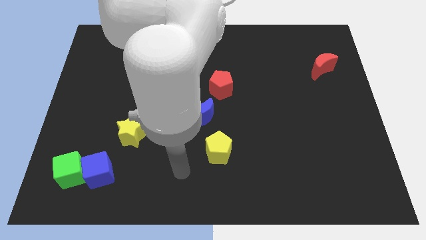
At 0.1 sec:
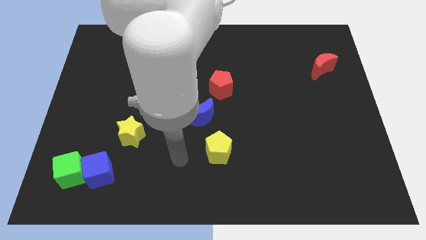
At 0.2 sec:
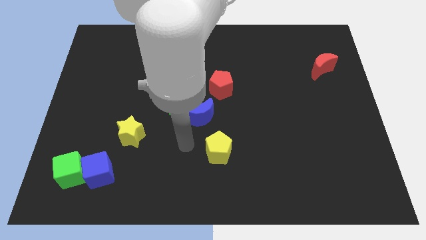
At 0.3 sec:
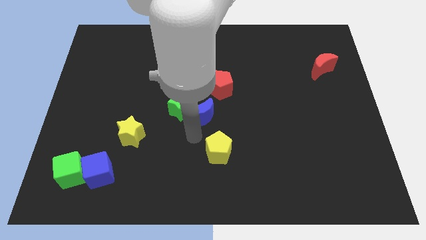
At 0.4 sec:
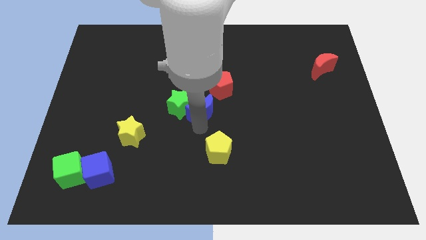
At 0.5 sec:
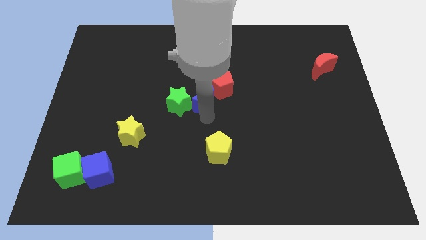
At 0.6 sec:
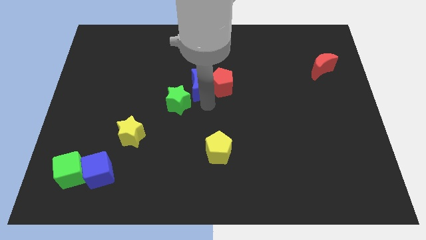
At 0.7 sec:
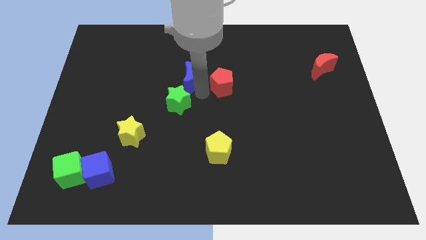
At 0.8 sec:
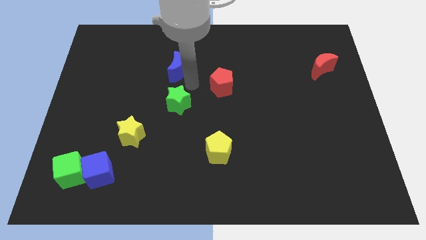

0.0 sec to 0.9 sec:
move the green star away from the blue moon

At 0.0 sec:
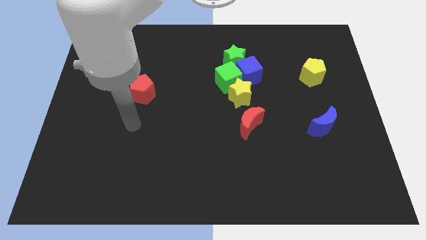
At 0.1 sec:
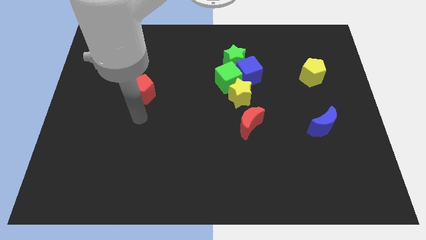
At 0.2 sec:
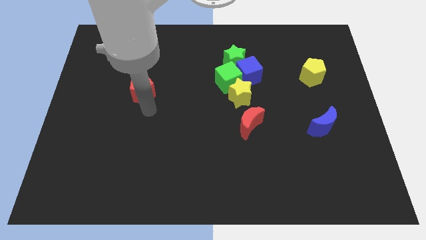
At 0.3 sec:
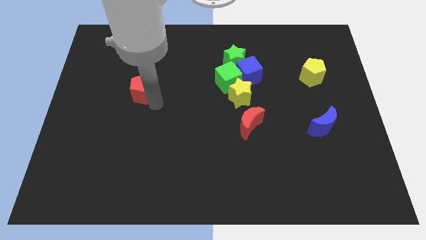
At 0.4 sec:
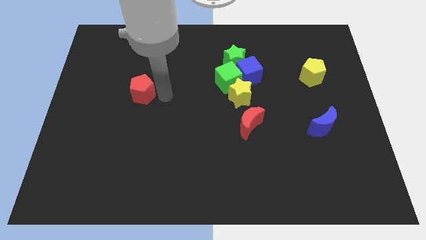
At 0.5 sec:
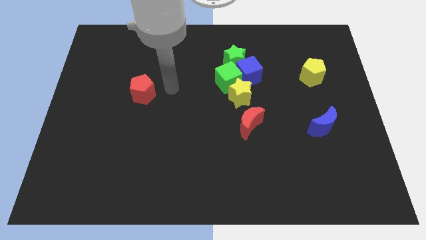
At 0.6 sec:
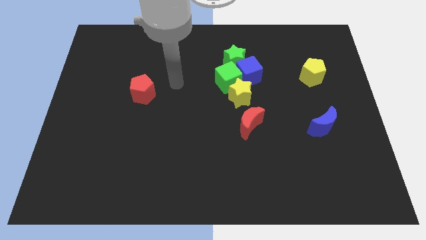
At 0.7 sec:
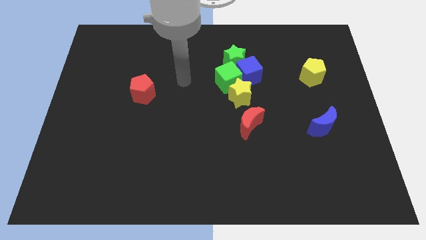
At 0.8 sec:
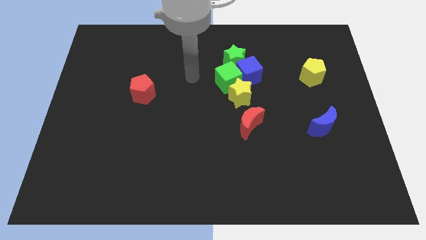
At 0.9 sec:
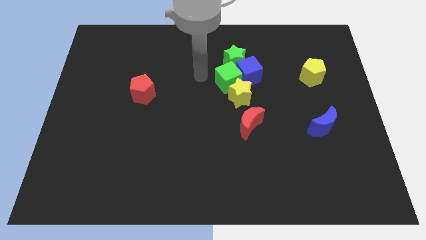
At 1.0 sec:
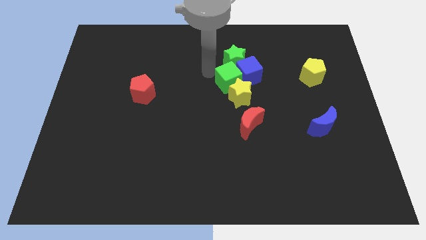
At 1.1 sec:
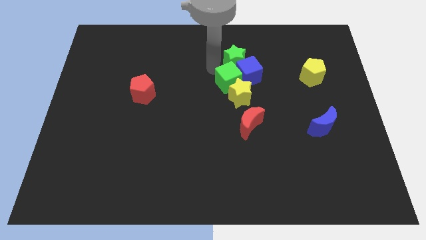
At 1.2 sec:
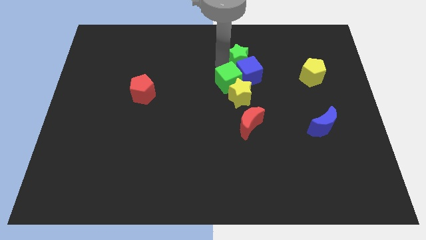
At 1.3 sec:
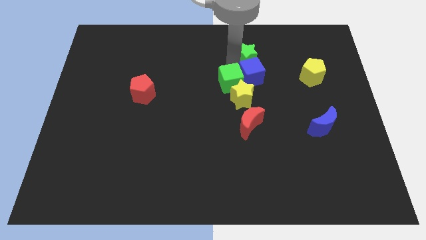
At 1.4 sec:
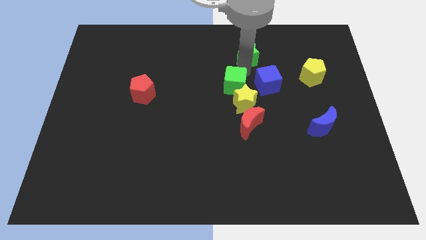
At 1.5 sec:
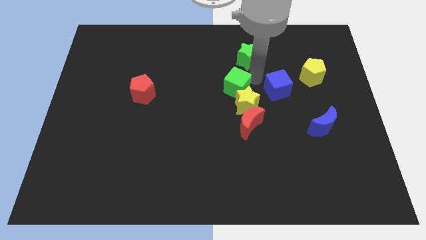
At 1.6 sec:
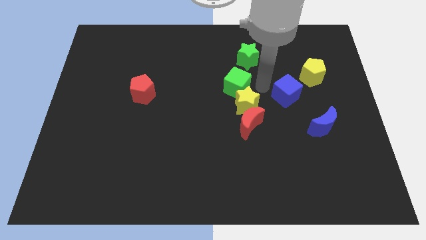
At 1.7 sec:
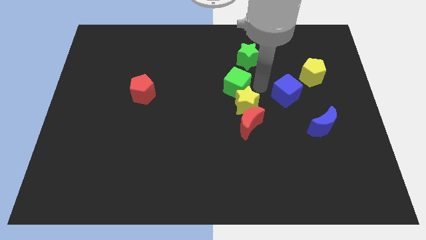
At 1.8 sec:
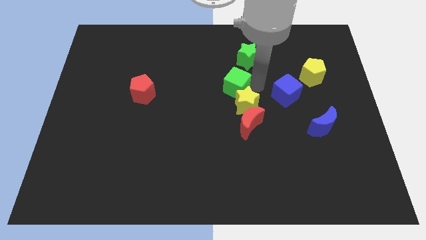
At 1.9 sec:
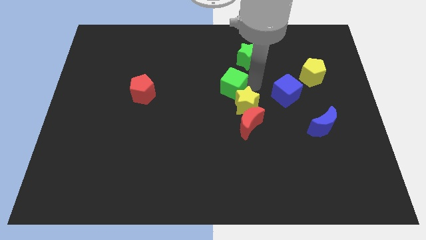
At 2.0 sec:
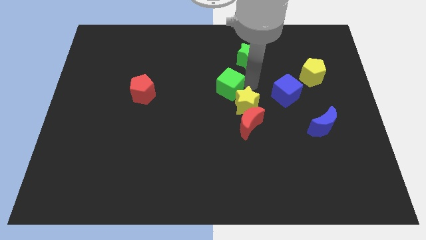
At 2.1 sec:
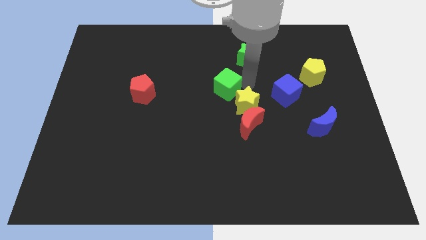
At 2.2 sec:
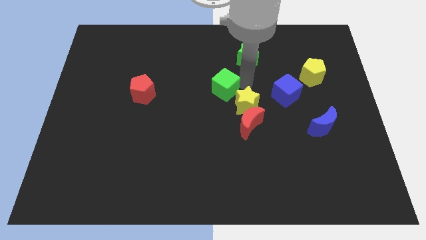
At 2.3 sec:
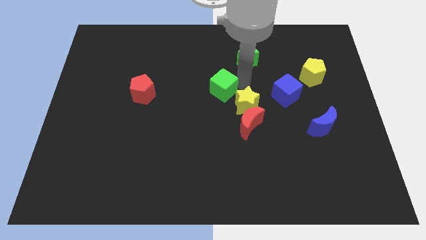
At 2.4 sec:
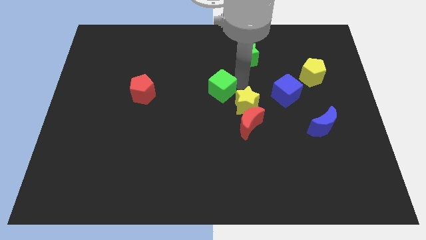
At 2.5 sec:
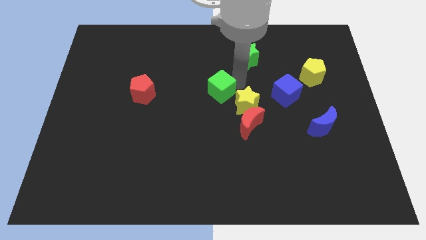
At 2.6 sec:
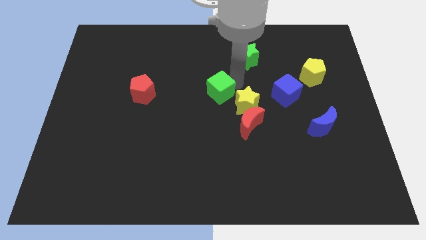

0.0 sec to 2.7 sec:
separate the green cube from the blue cube, yellow star, and green star

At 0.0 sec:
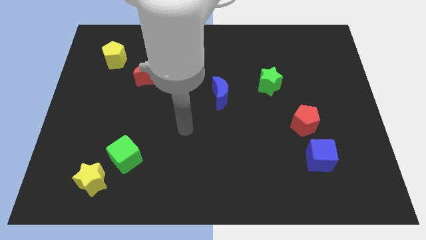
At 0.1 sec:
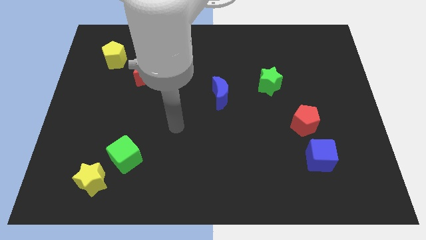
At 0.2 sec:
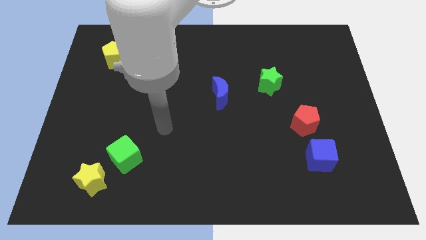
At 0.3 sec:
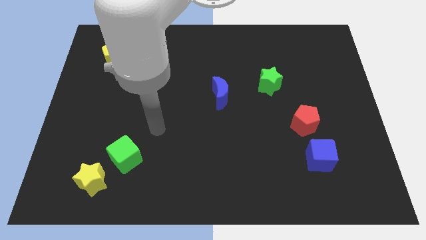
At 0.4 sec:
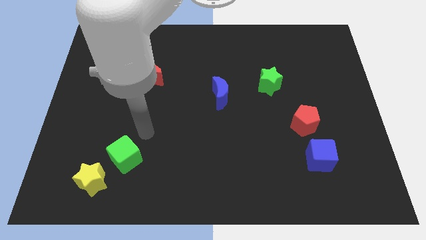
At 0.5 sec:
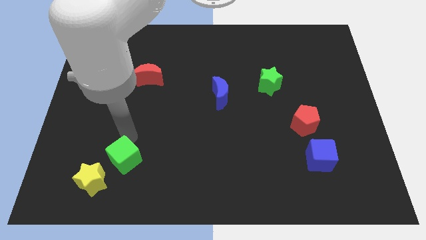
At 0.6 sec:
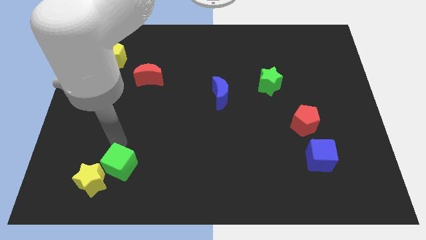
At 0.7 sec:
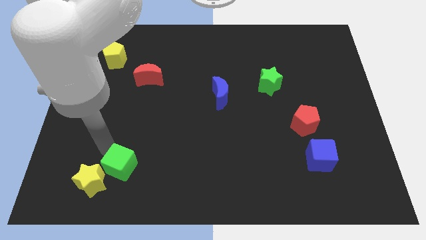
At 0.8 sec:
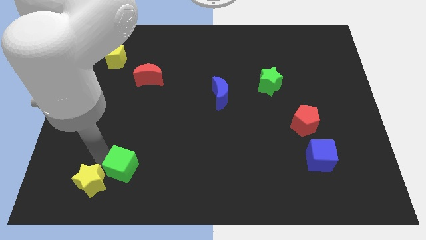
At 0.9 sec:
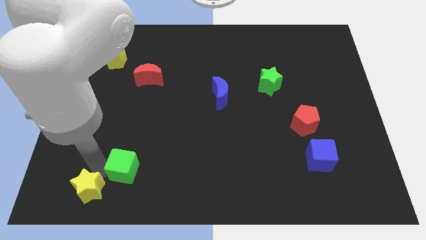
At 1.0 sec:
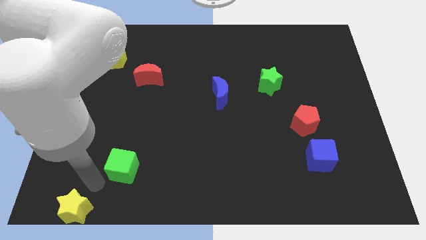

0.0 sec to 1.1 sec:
separate the green cube from the yellow star

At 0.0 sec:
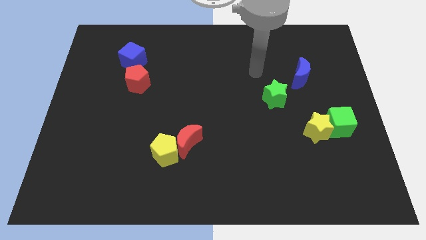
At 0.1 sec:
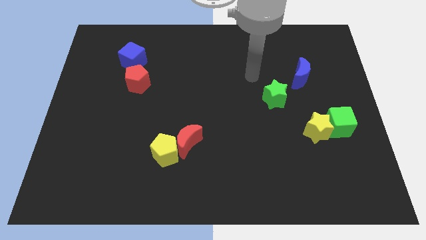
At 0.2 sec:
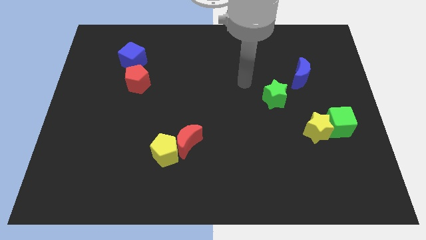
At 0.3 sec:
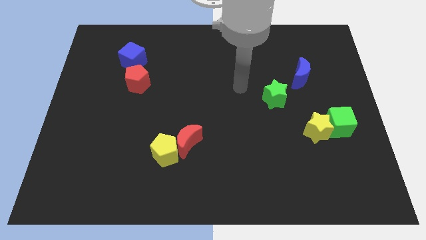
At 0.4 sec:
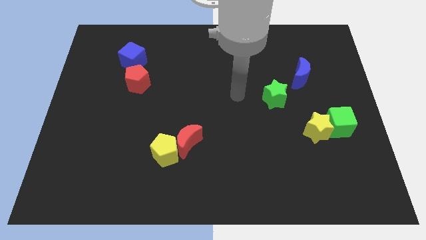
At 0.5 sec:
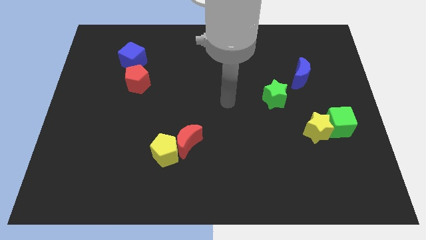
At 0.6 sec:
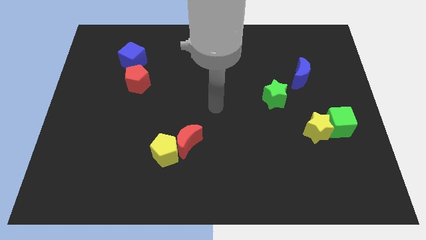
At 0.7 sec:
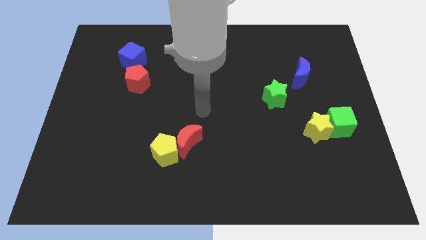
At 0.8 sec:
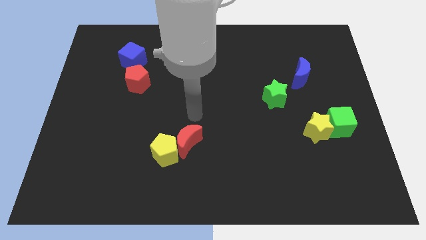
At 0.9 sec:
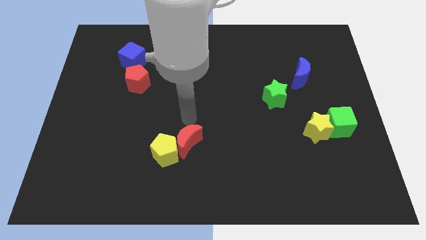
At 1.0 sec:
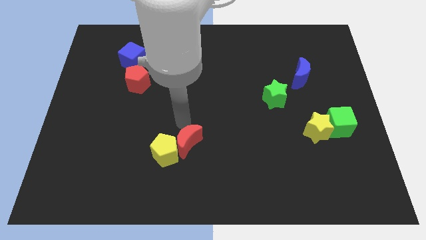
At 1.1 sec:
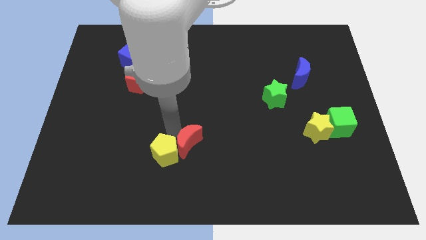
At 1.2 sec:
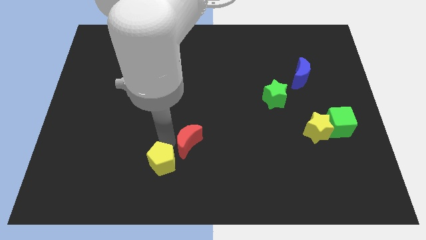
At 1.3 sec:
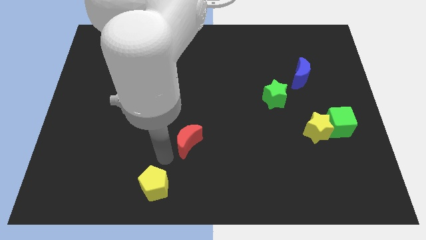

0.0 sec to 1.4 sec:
pull the red moon apart from the yellow pentagon

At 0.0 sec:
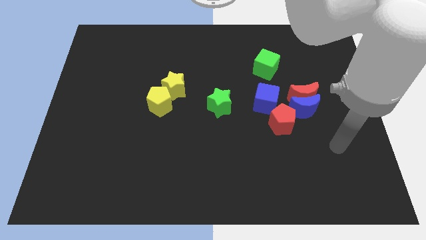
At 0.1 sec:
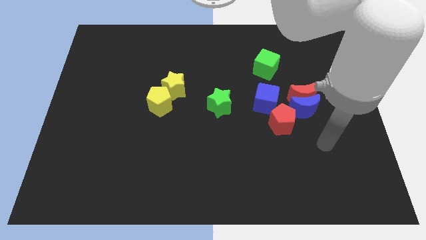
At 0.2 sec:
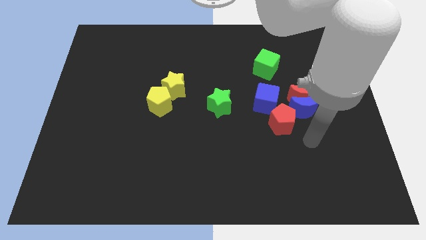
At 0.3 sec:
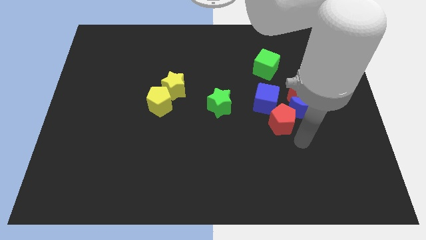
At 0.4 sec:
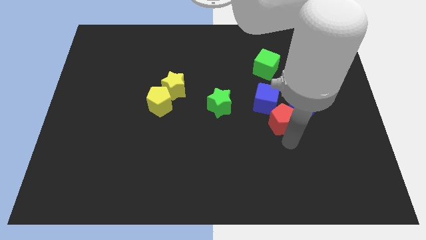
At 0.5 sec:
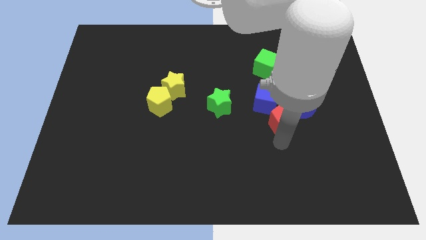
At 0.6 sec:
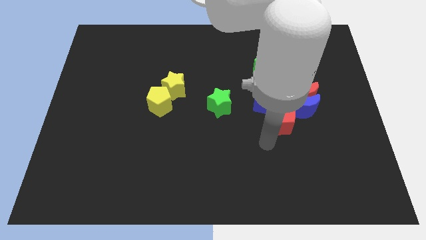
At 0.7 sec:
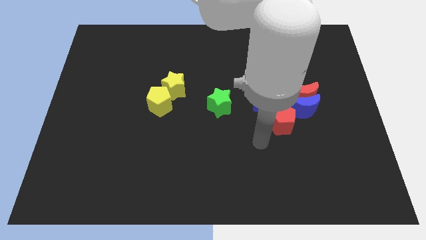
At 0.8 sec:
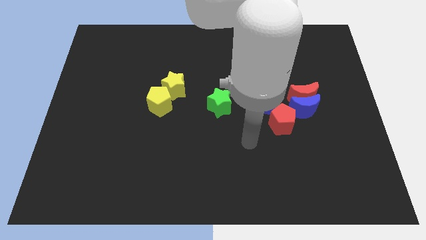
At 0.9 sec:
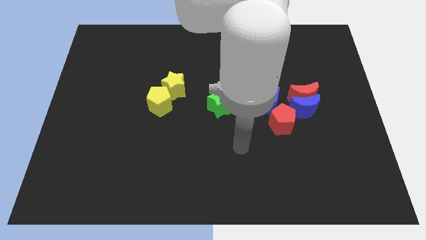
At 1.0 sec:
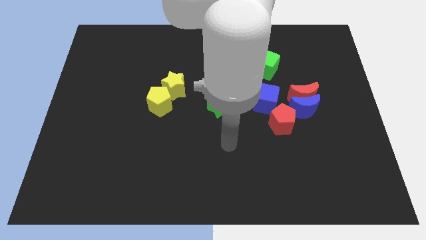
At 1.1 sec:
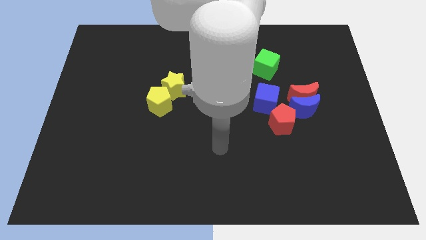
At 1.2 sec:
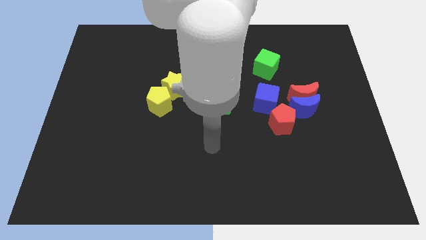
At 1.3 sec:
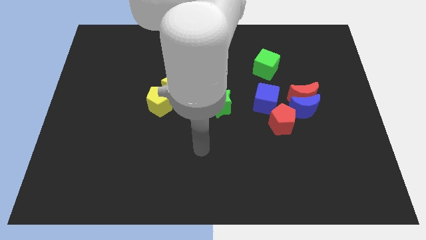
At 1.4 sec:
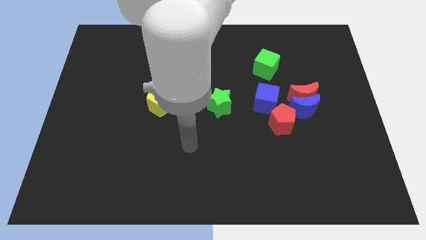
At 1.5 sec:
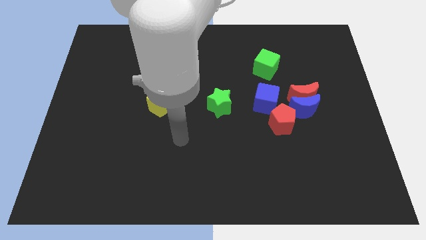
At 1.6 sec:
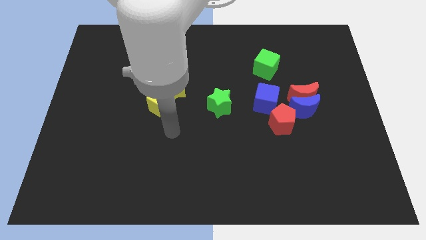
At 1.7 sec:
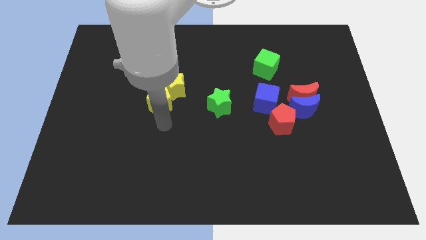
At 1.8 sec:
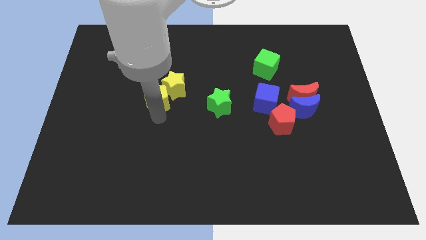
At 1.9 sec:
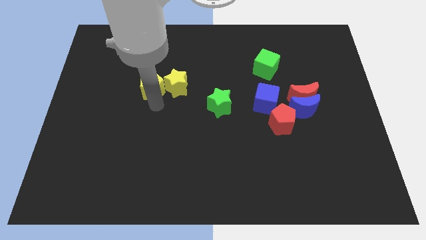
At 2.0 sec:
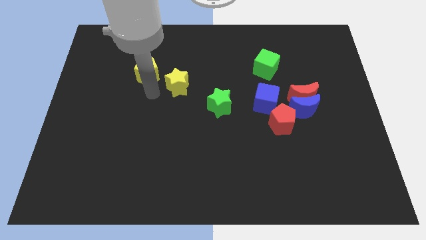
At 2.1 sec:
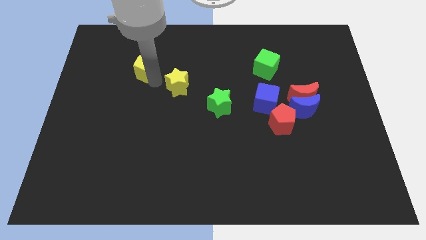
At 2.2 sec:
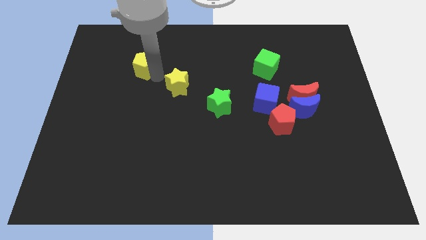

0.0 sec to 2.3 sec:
move the yellow star away from the yellow pentagon

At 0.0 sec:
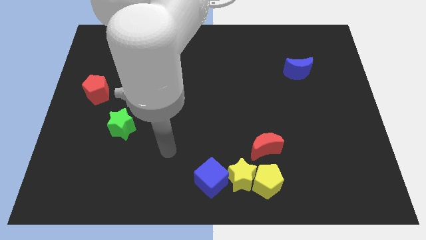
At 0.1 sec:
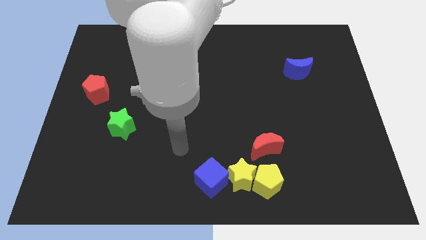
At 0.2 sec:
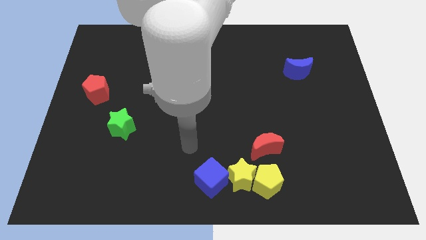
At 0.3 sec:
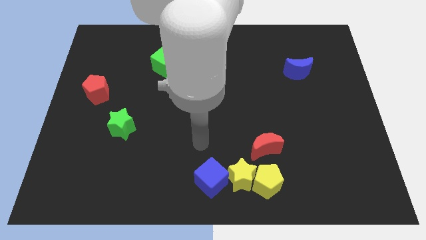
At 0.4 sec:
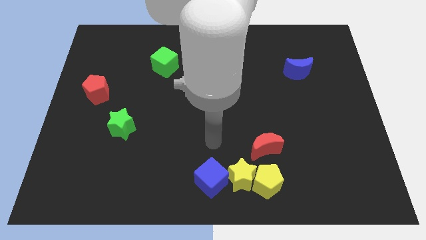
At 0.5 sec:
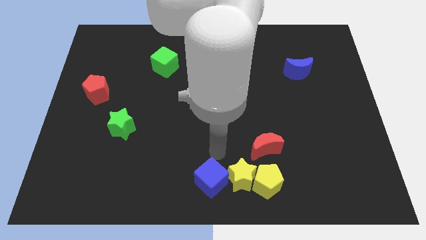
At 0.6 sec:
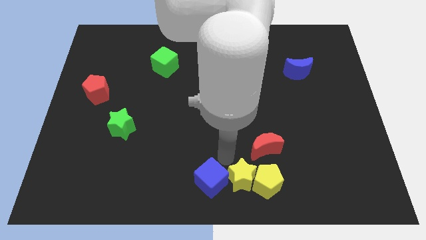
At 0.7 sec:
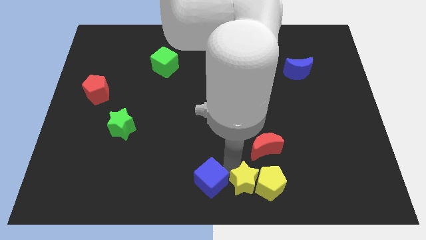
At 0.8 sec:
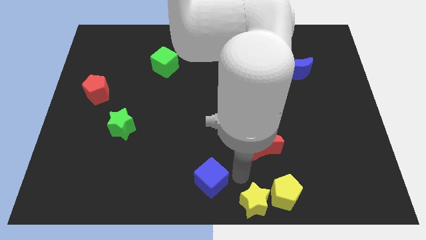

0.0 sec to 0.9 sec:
pull the blue cube apart from the yellow star
